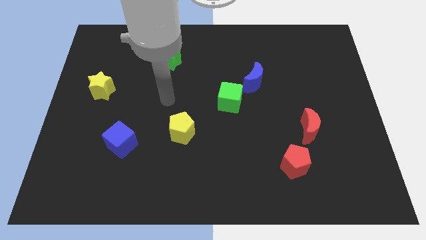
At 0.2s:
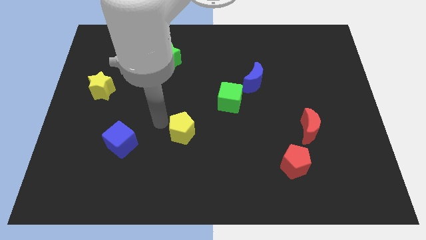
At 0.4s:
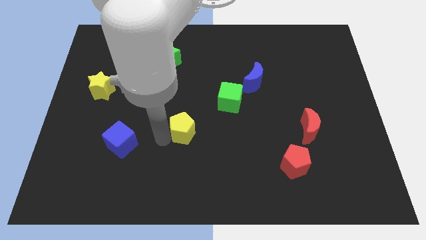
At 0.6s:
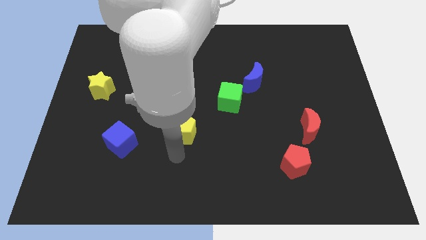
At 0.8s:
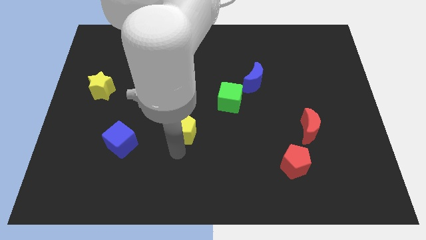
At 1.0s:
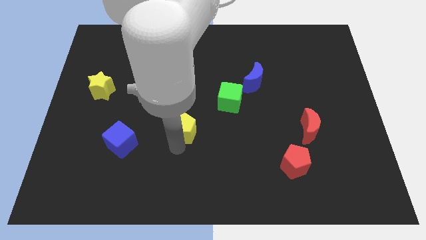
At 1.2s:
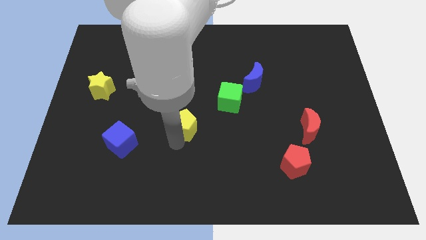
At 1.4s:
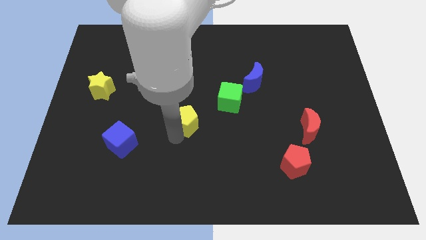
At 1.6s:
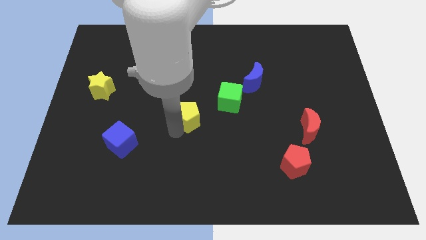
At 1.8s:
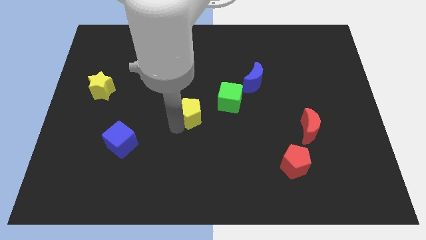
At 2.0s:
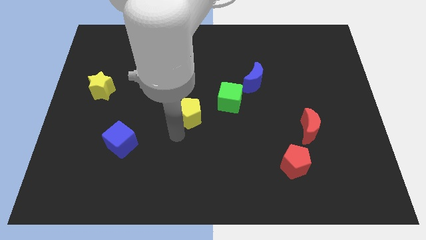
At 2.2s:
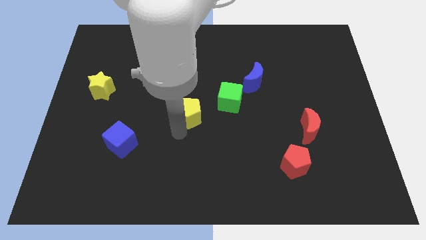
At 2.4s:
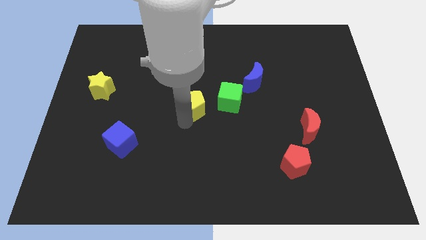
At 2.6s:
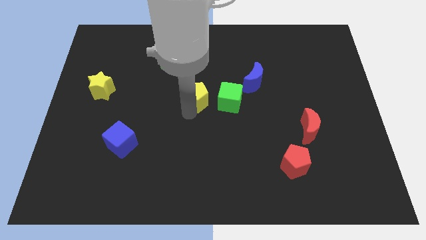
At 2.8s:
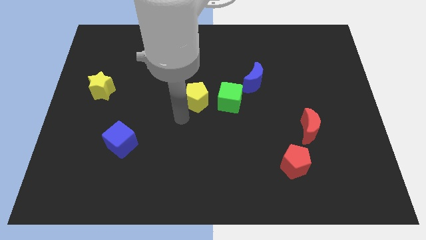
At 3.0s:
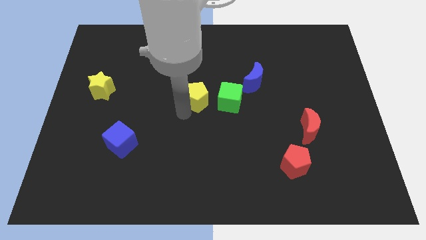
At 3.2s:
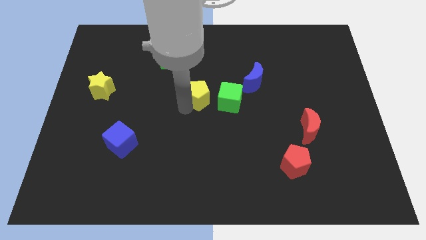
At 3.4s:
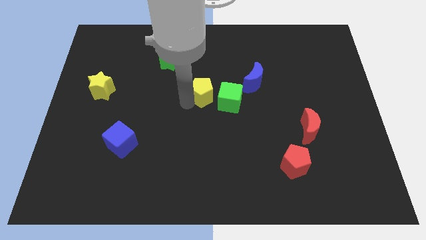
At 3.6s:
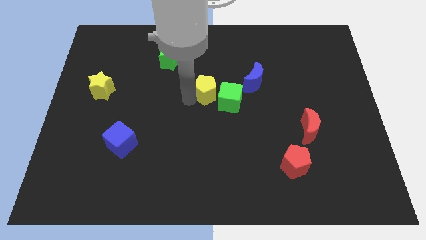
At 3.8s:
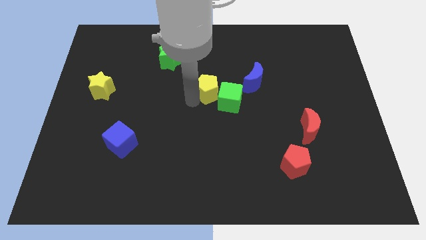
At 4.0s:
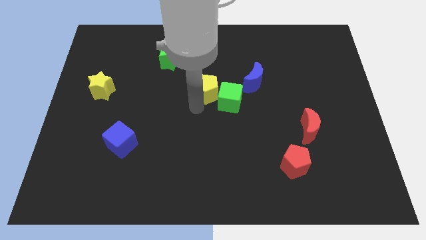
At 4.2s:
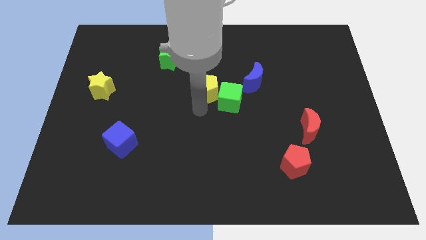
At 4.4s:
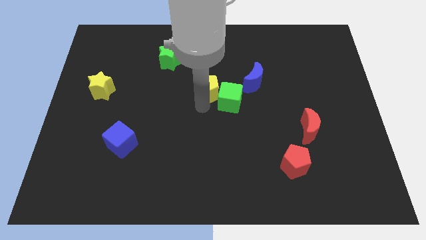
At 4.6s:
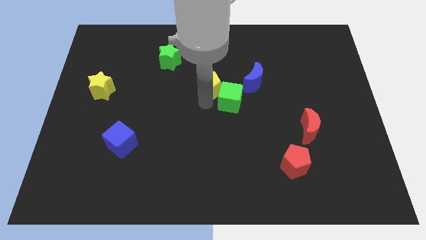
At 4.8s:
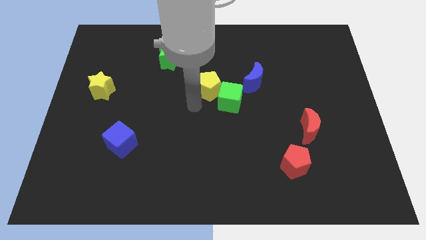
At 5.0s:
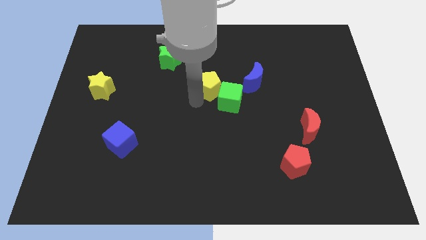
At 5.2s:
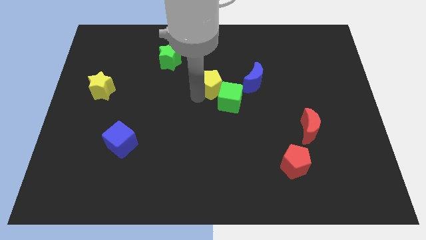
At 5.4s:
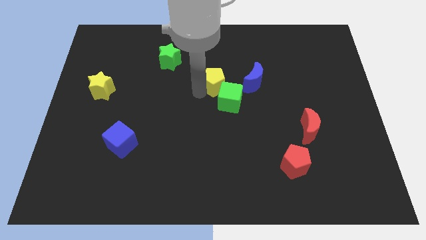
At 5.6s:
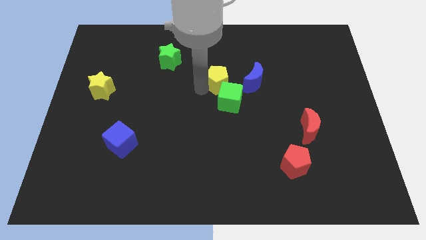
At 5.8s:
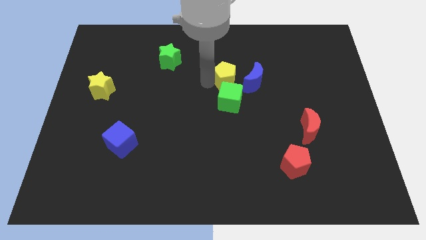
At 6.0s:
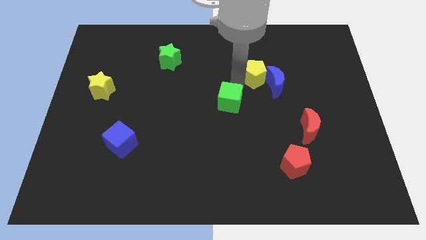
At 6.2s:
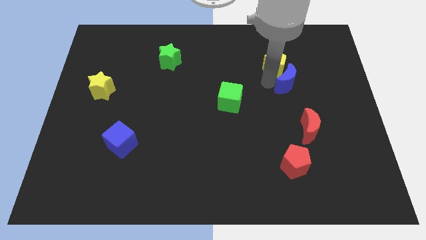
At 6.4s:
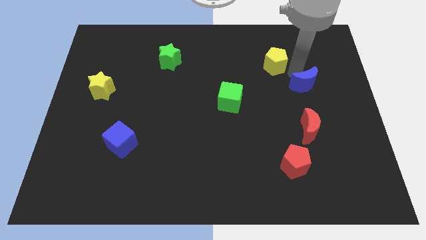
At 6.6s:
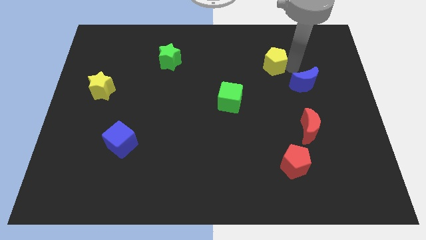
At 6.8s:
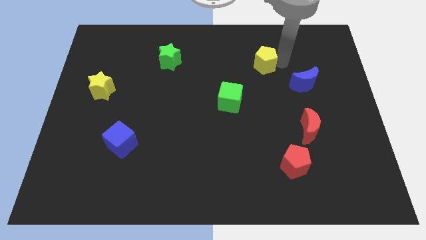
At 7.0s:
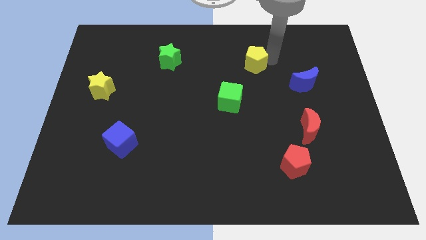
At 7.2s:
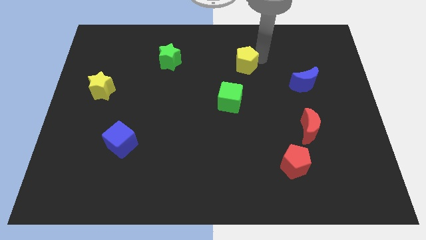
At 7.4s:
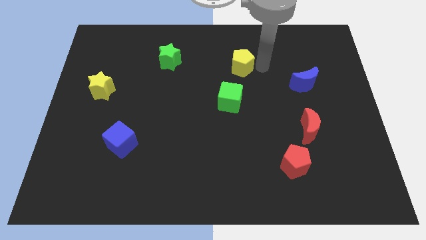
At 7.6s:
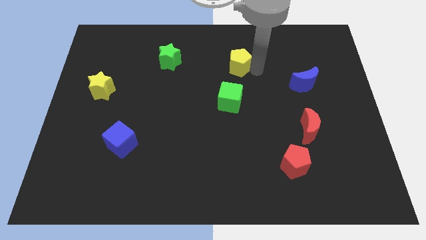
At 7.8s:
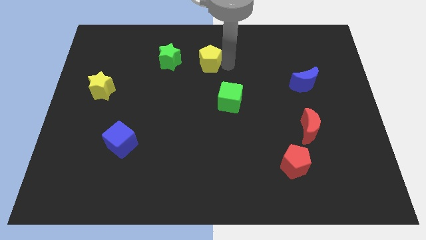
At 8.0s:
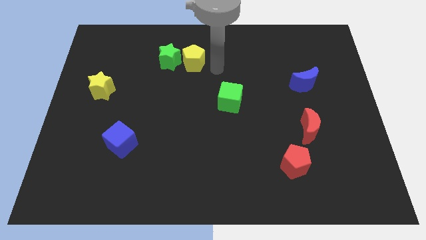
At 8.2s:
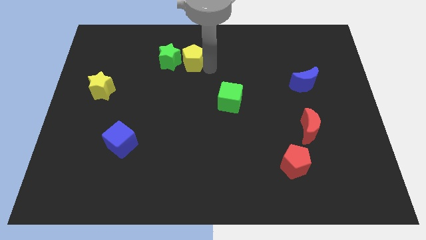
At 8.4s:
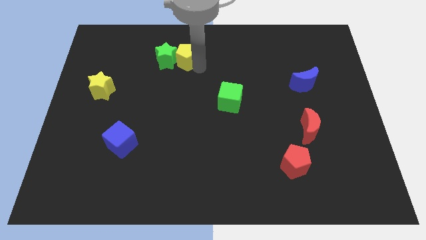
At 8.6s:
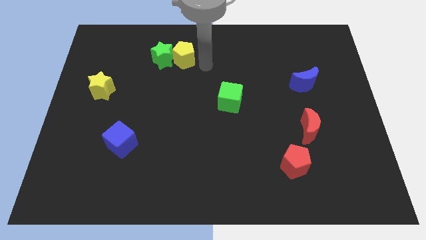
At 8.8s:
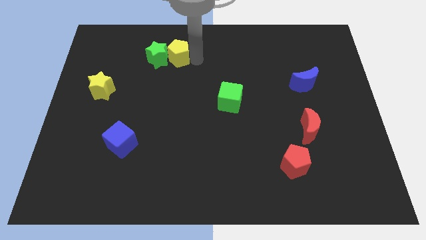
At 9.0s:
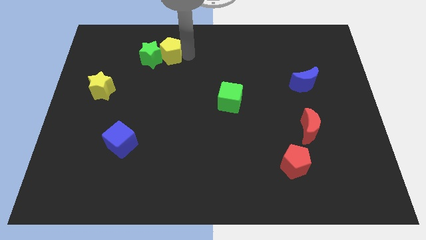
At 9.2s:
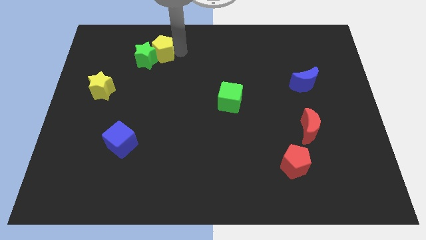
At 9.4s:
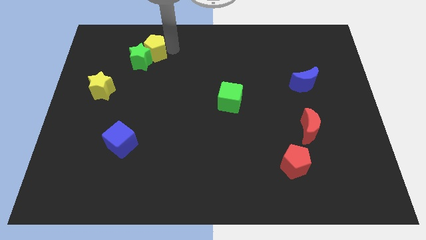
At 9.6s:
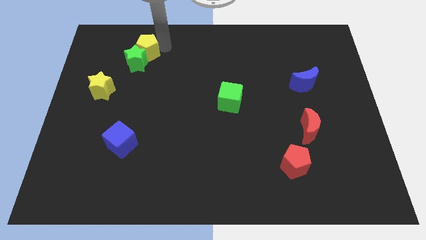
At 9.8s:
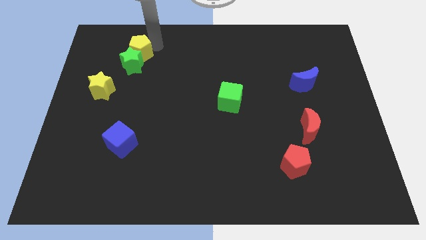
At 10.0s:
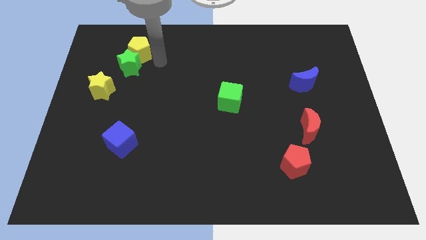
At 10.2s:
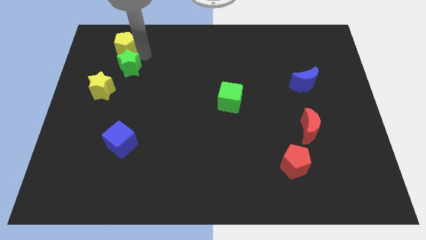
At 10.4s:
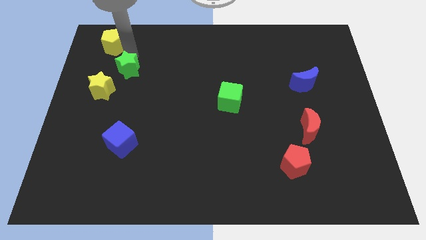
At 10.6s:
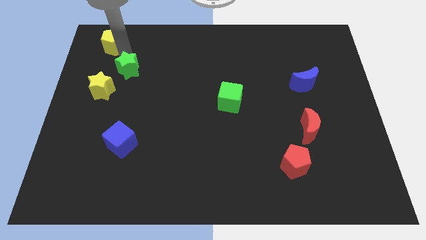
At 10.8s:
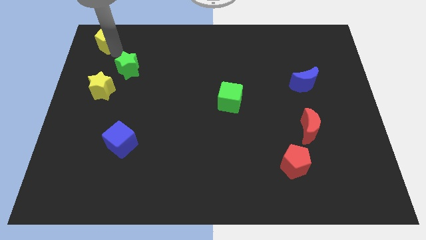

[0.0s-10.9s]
push the yellow pentagon to the top left

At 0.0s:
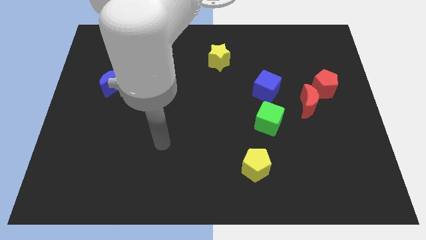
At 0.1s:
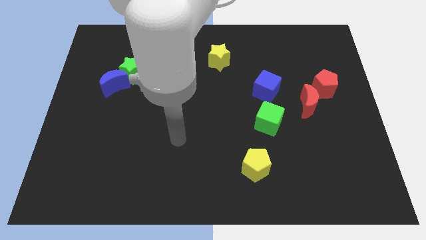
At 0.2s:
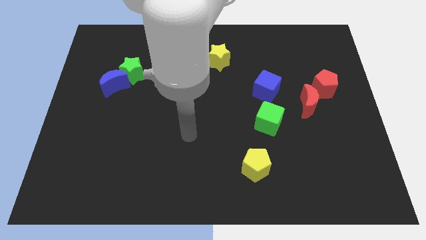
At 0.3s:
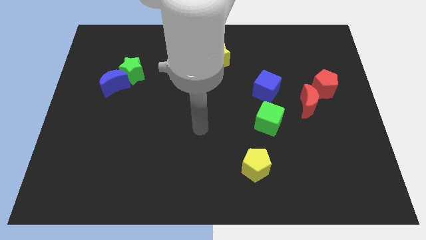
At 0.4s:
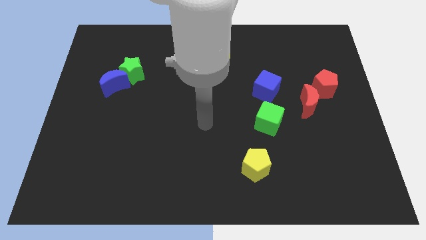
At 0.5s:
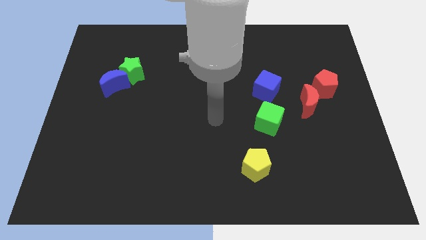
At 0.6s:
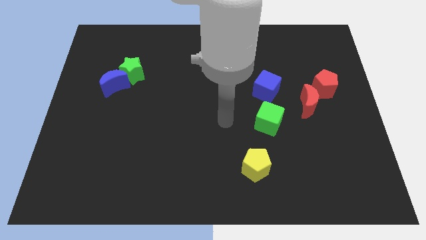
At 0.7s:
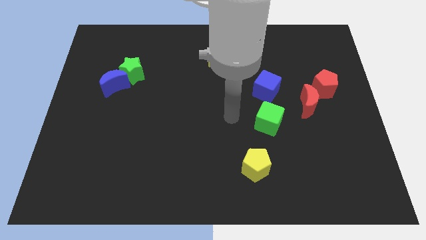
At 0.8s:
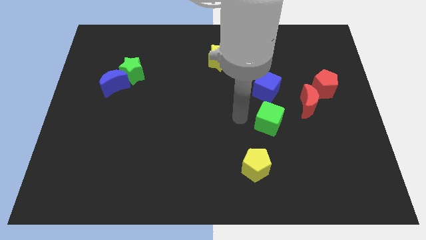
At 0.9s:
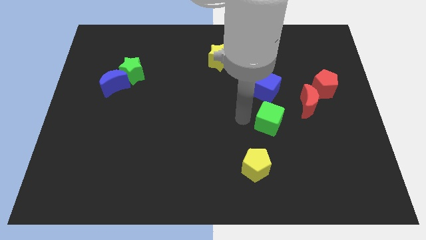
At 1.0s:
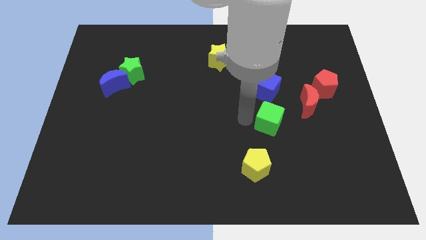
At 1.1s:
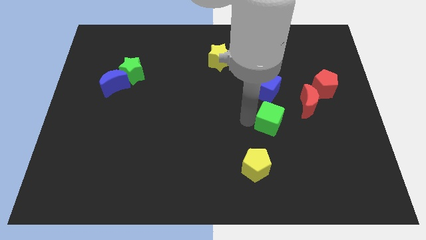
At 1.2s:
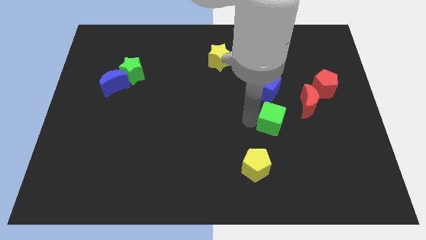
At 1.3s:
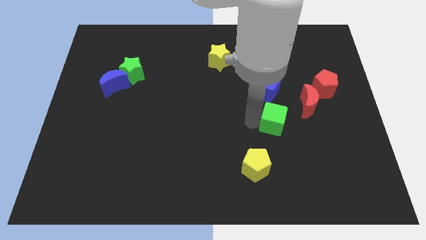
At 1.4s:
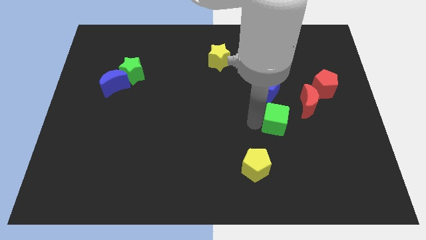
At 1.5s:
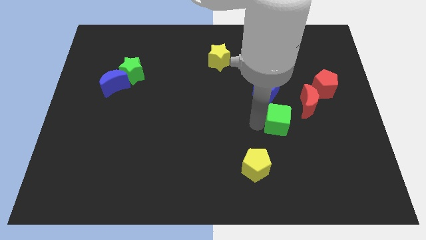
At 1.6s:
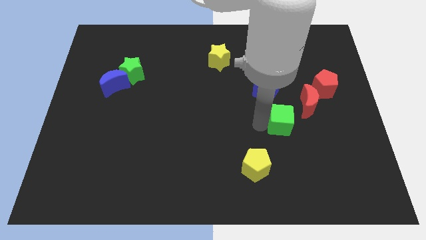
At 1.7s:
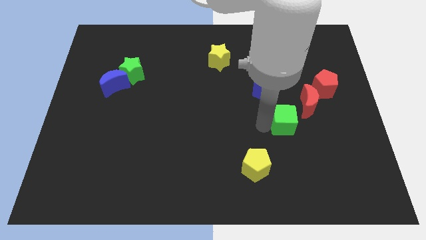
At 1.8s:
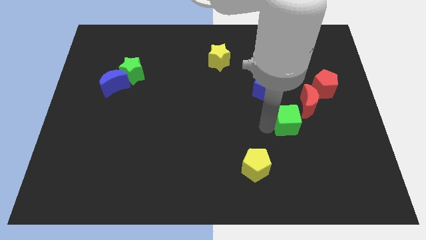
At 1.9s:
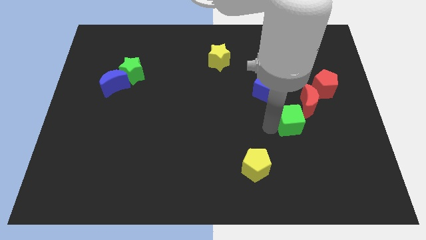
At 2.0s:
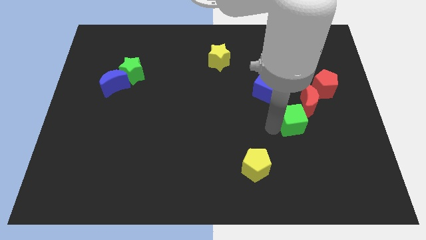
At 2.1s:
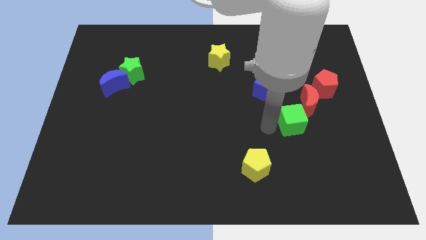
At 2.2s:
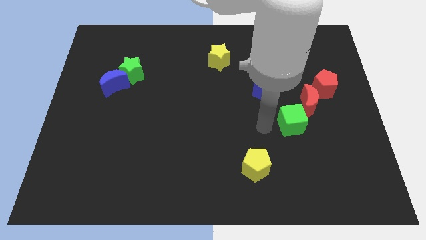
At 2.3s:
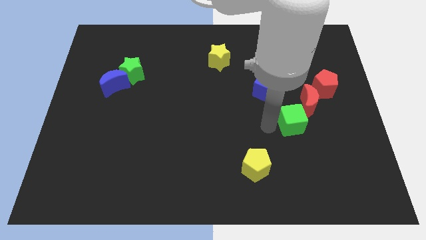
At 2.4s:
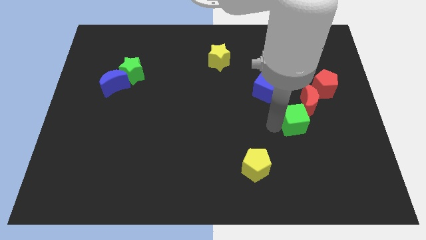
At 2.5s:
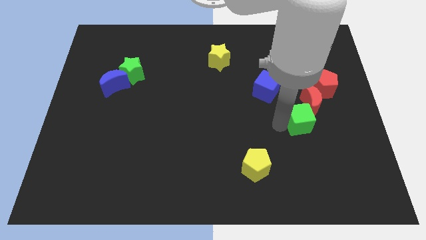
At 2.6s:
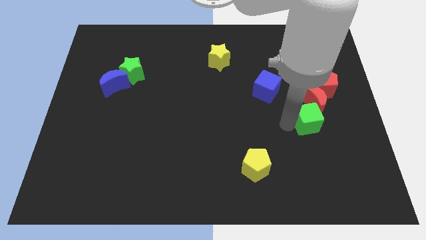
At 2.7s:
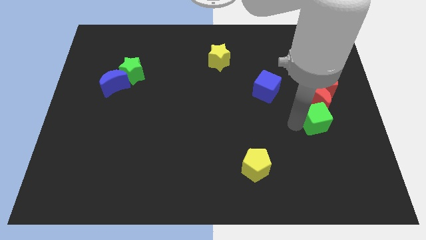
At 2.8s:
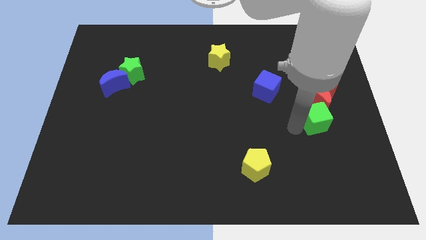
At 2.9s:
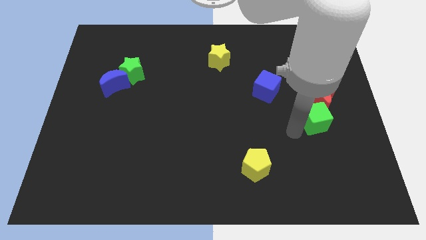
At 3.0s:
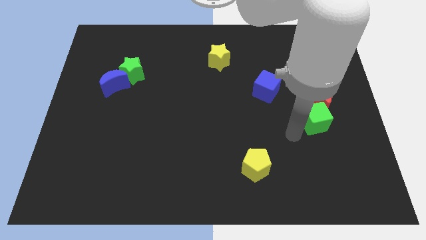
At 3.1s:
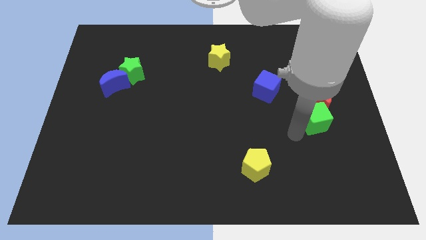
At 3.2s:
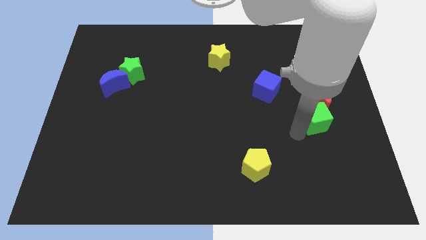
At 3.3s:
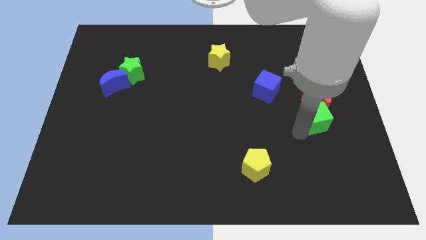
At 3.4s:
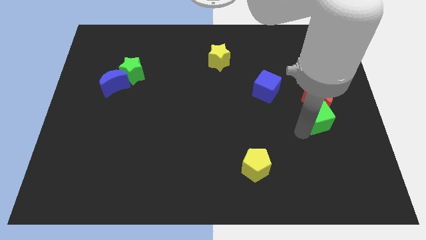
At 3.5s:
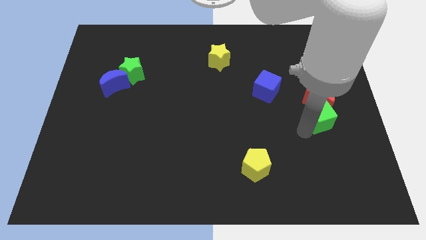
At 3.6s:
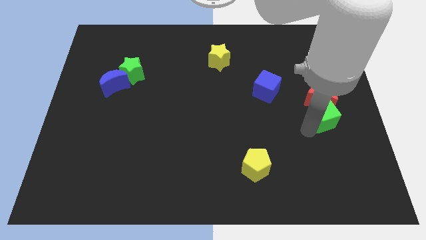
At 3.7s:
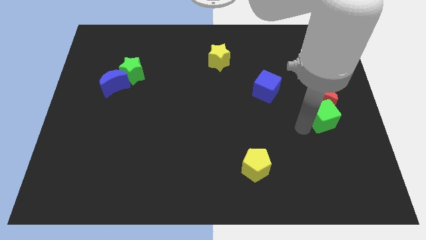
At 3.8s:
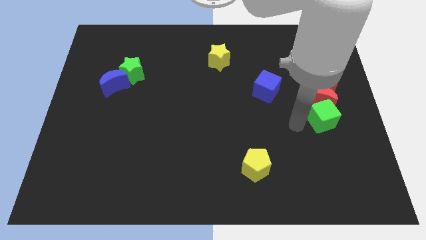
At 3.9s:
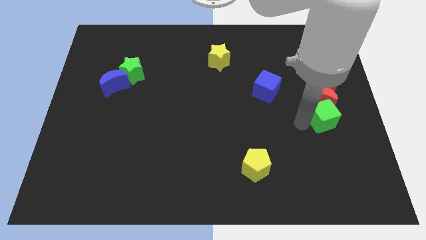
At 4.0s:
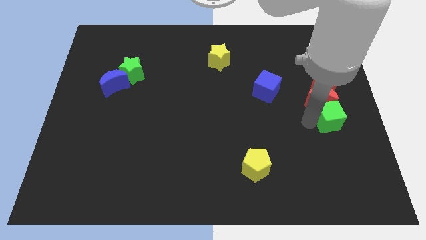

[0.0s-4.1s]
put the green cube to the right side of the board
